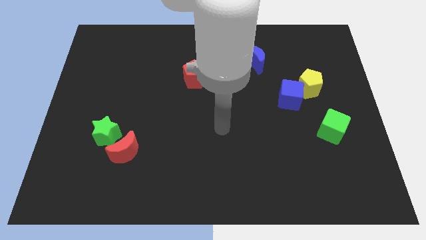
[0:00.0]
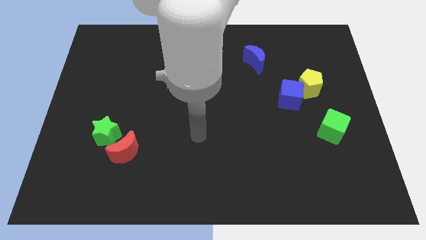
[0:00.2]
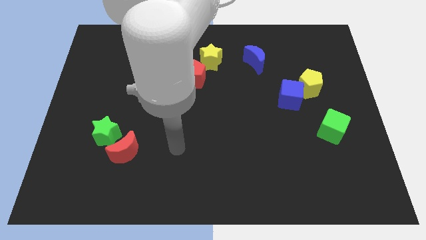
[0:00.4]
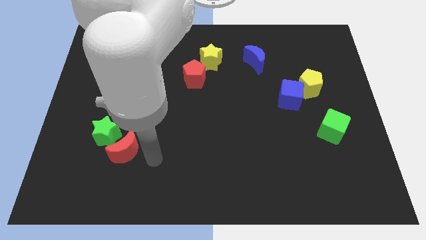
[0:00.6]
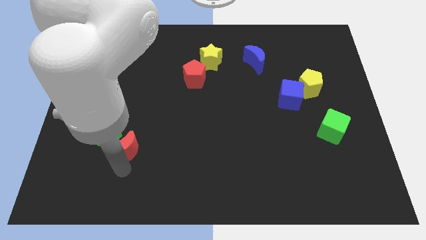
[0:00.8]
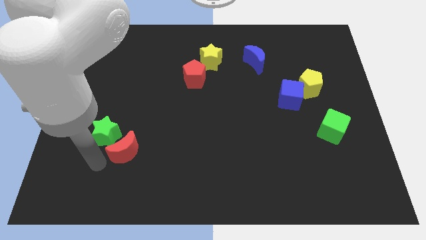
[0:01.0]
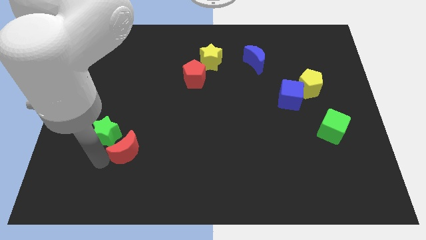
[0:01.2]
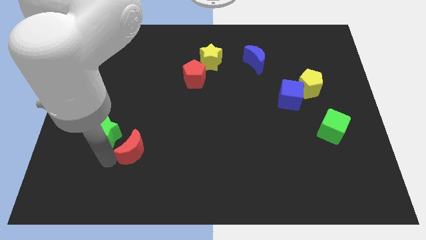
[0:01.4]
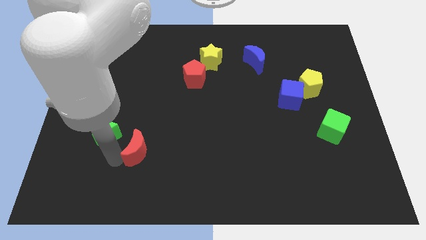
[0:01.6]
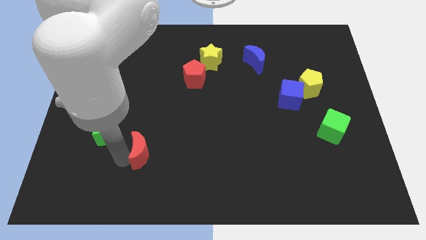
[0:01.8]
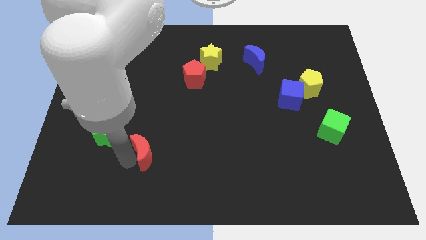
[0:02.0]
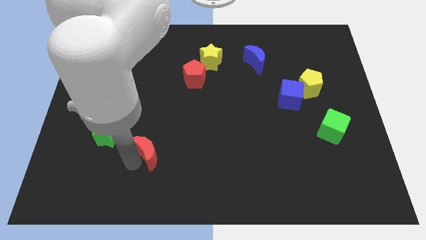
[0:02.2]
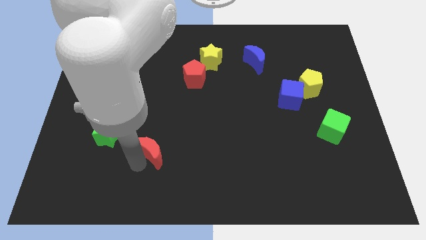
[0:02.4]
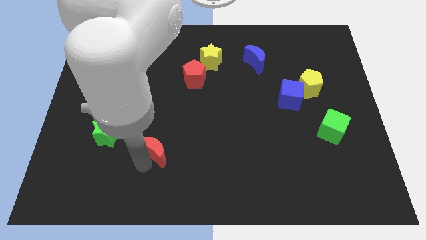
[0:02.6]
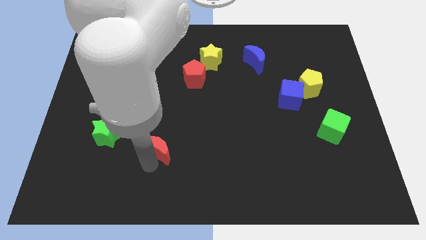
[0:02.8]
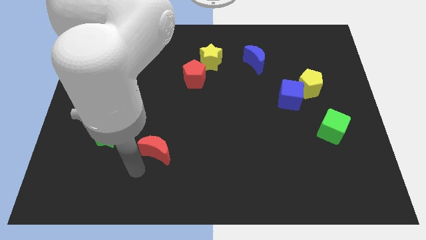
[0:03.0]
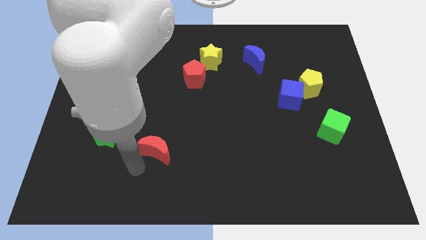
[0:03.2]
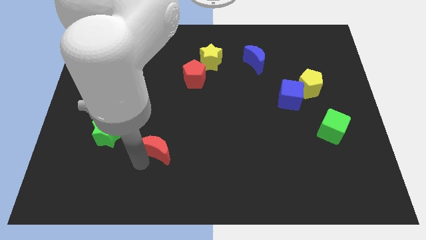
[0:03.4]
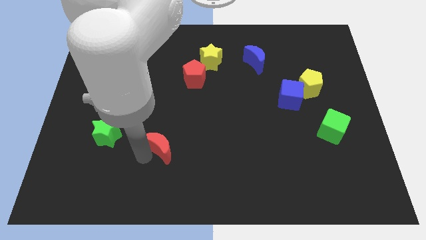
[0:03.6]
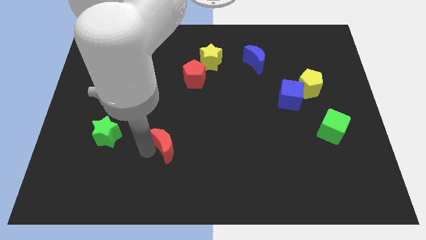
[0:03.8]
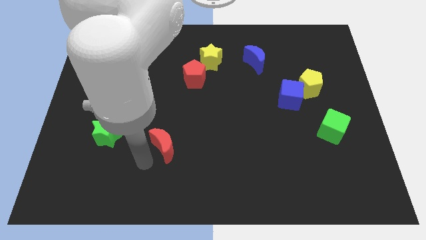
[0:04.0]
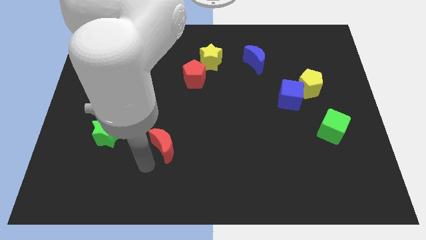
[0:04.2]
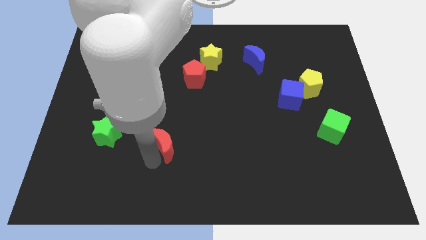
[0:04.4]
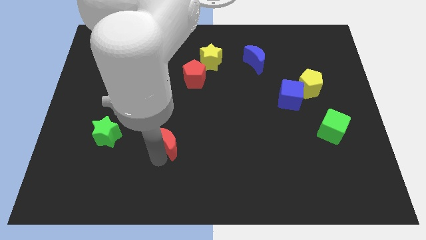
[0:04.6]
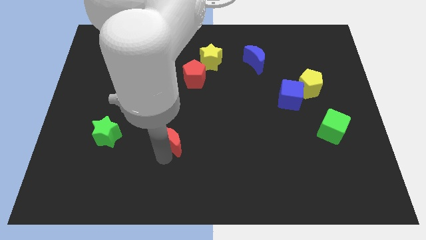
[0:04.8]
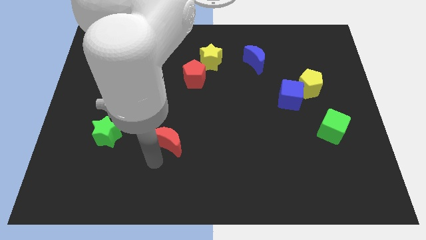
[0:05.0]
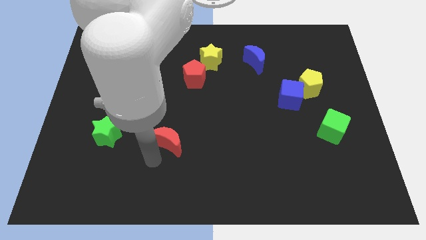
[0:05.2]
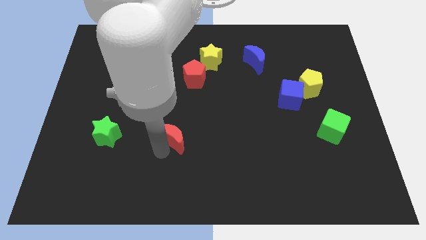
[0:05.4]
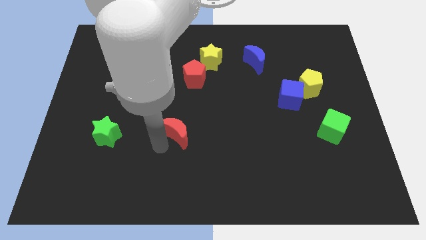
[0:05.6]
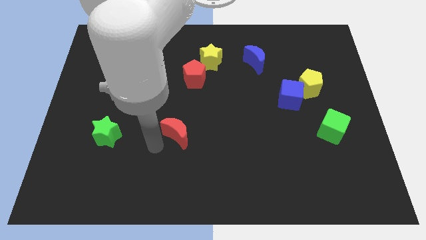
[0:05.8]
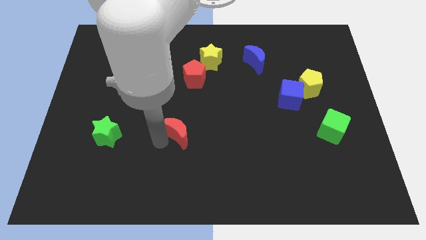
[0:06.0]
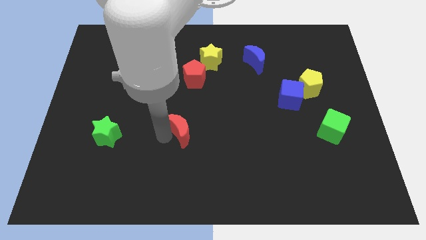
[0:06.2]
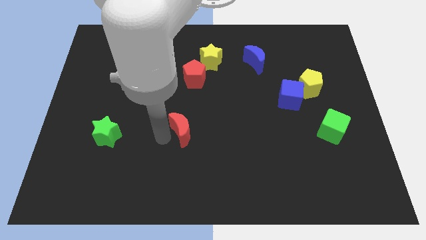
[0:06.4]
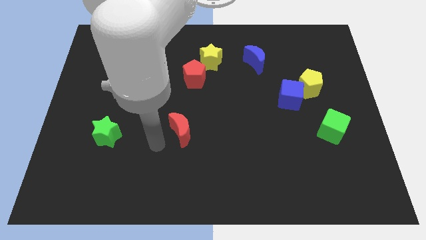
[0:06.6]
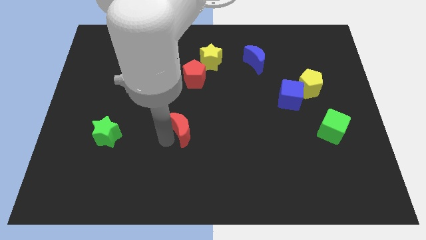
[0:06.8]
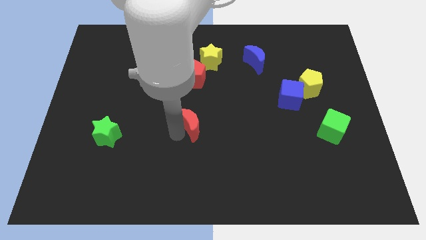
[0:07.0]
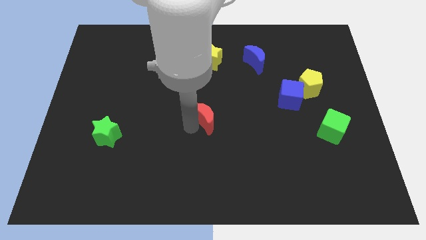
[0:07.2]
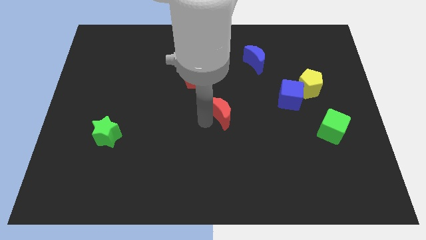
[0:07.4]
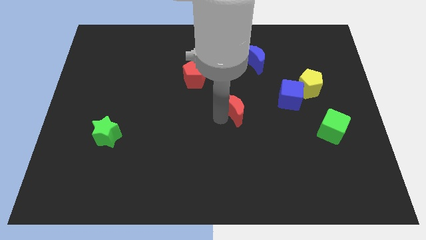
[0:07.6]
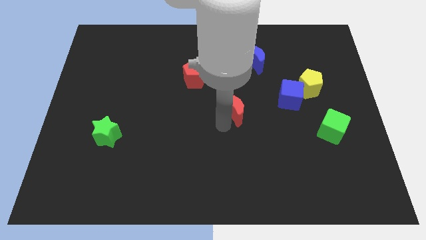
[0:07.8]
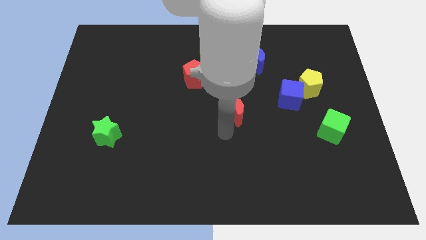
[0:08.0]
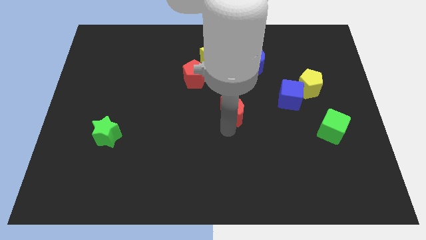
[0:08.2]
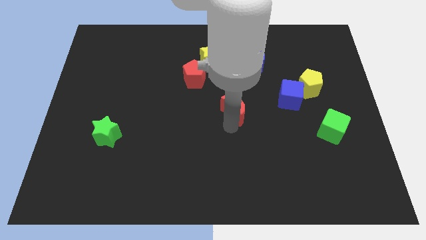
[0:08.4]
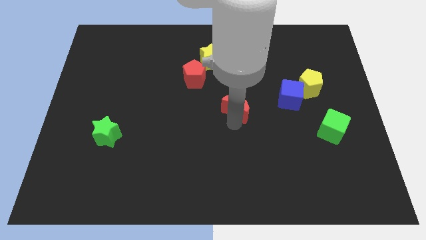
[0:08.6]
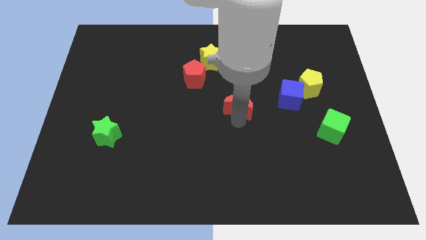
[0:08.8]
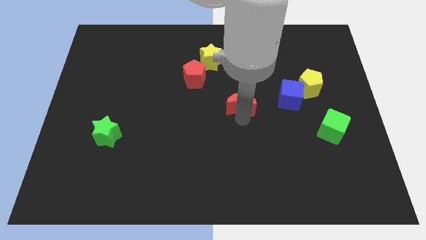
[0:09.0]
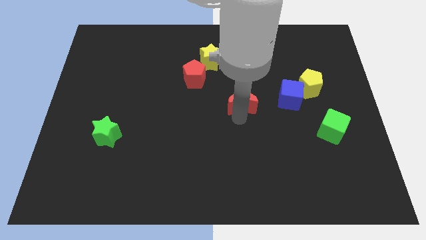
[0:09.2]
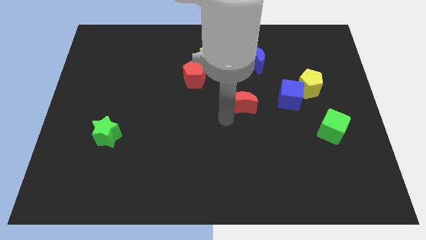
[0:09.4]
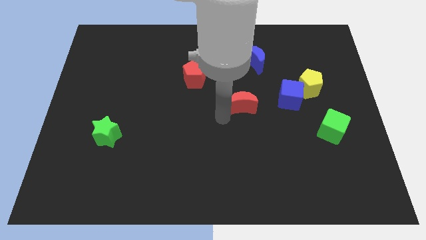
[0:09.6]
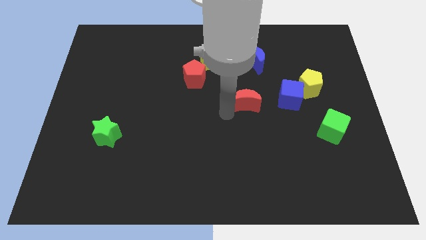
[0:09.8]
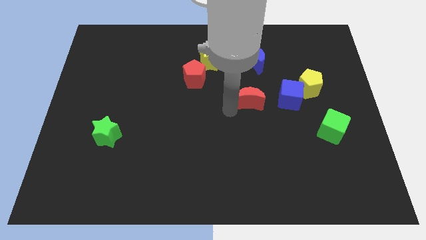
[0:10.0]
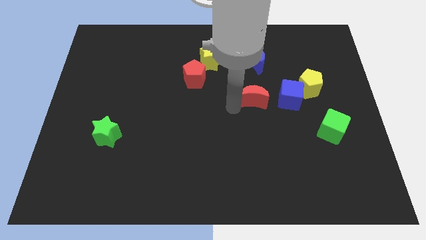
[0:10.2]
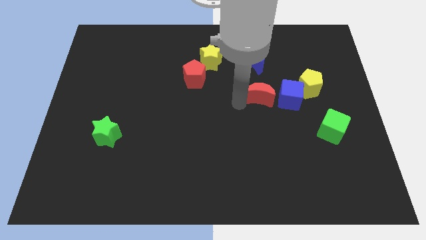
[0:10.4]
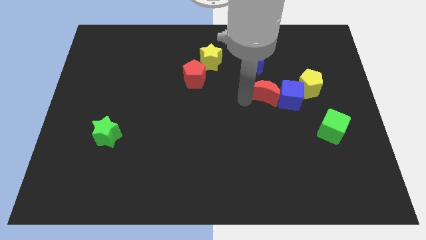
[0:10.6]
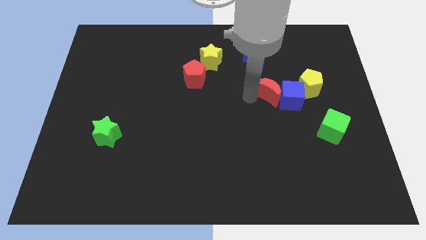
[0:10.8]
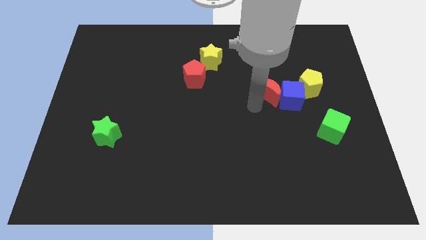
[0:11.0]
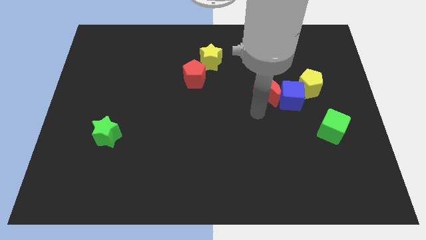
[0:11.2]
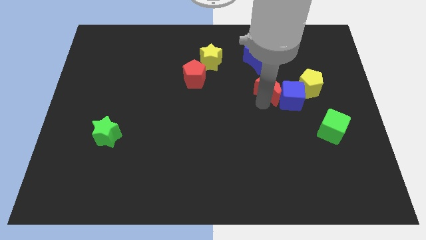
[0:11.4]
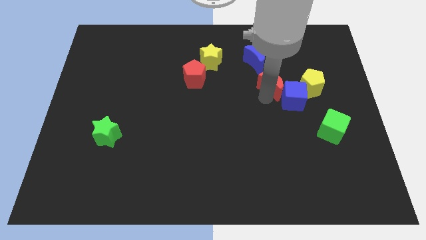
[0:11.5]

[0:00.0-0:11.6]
put the red moon diagonally down and to the right of the blue moon

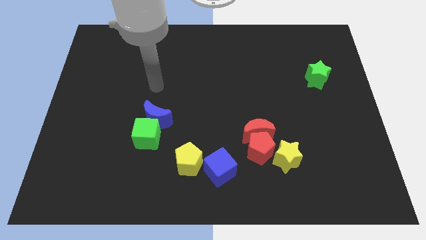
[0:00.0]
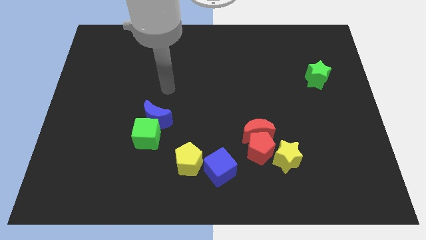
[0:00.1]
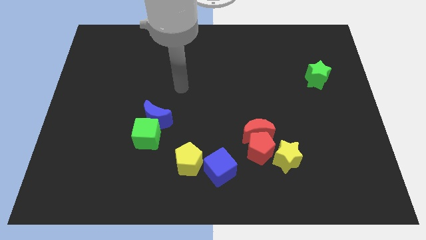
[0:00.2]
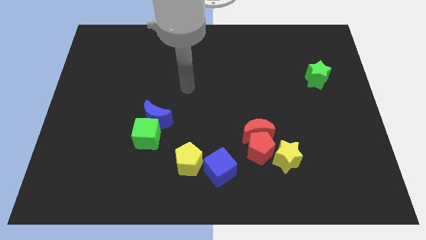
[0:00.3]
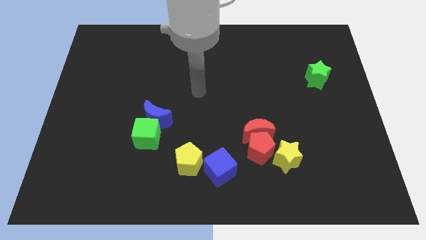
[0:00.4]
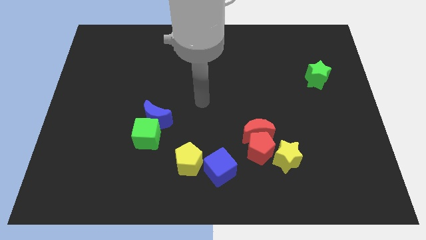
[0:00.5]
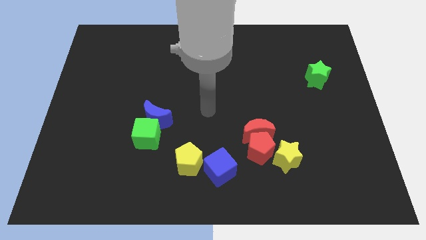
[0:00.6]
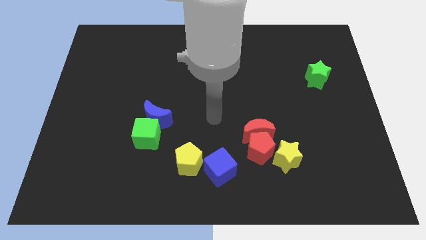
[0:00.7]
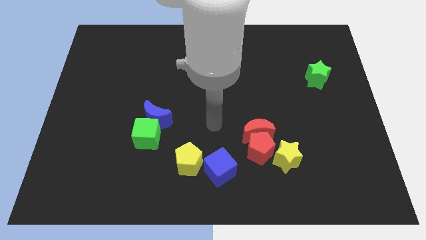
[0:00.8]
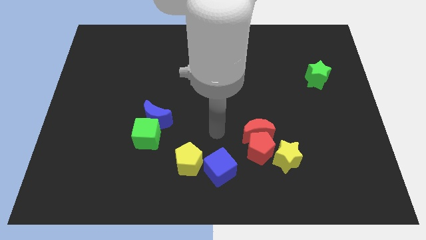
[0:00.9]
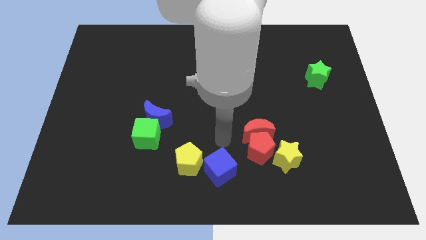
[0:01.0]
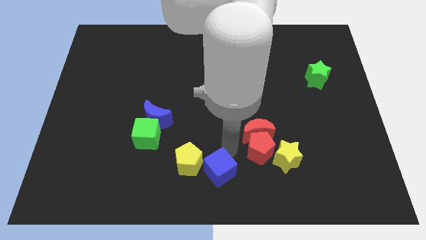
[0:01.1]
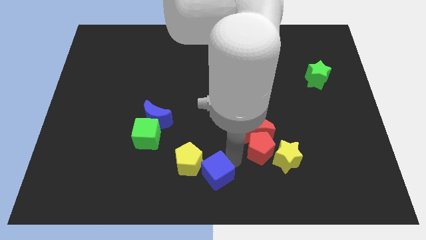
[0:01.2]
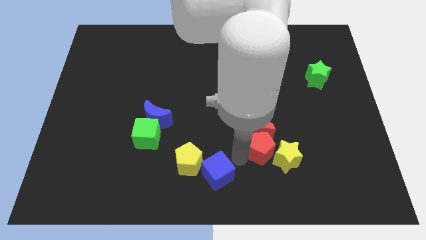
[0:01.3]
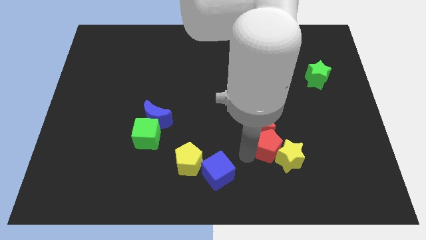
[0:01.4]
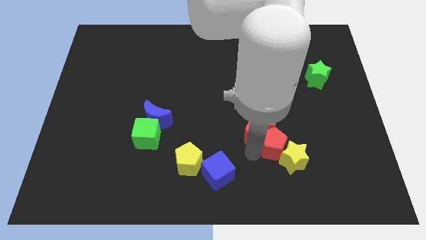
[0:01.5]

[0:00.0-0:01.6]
move the red pentagon to the top of the yellow star
